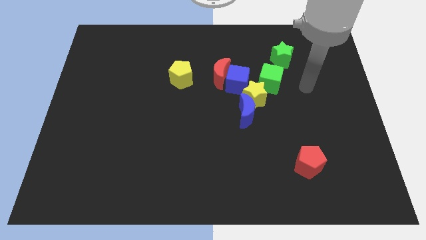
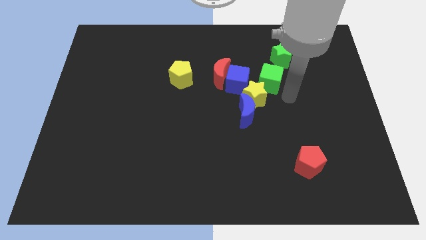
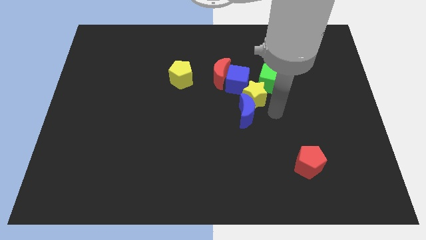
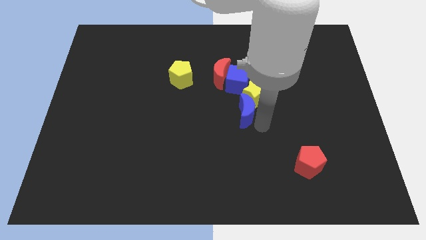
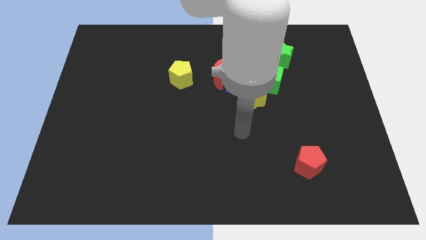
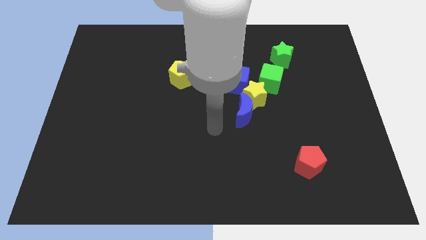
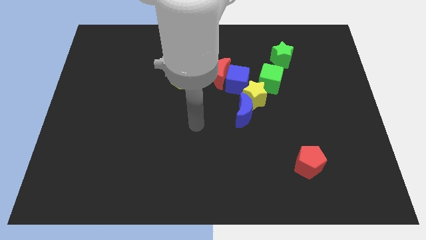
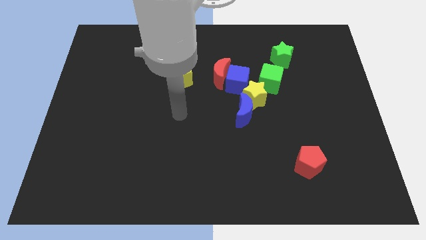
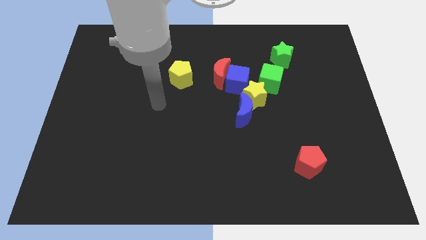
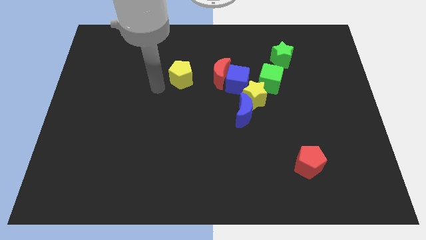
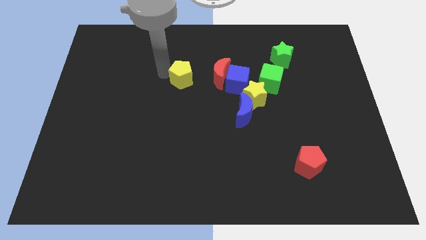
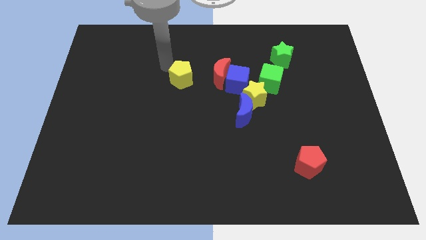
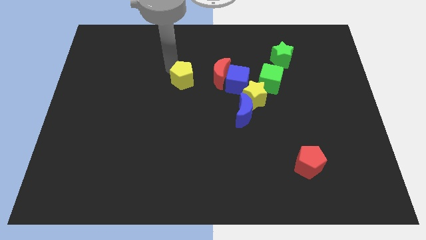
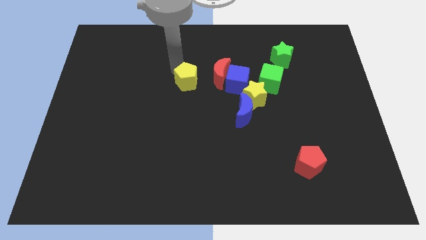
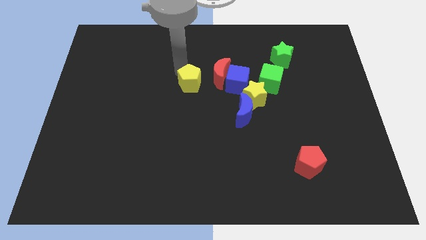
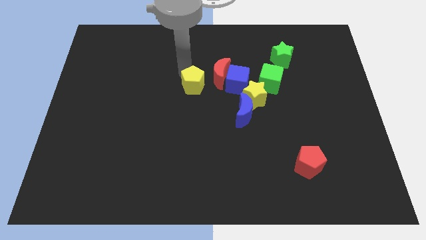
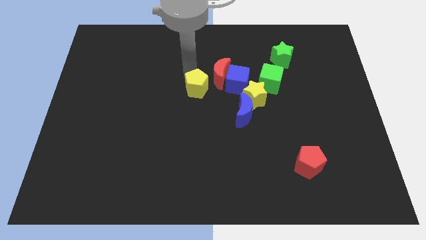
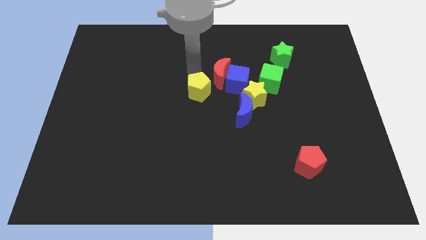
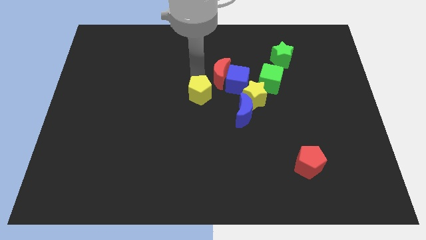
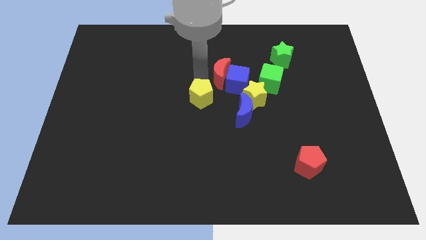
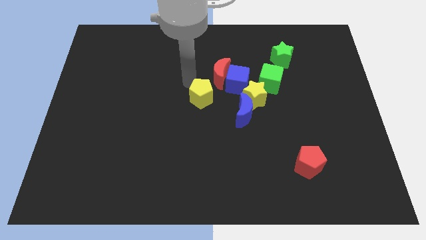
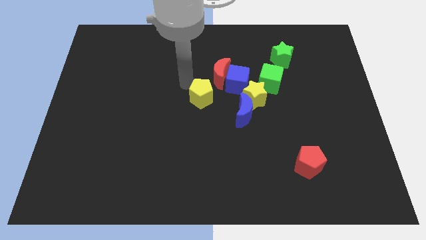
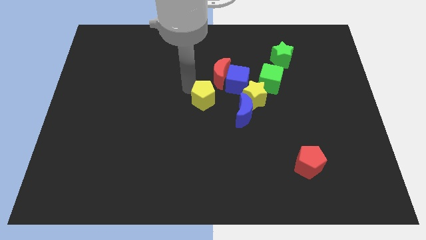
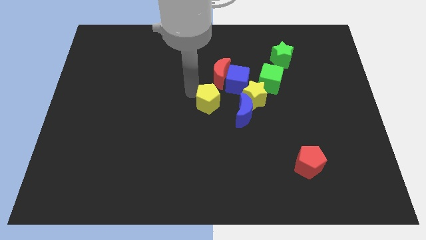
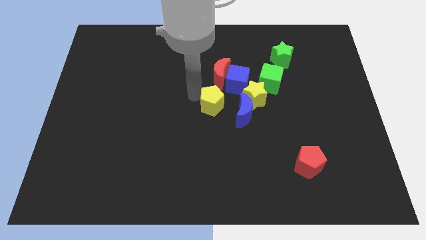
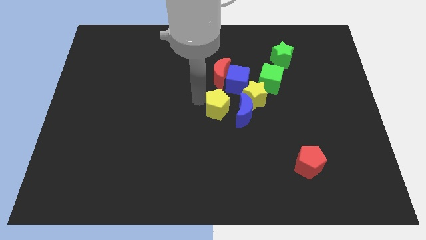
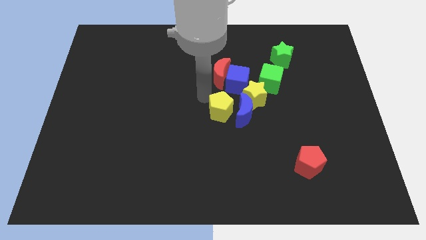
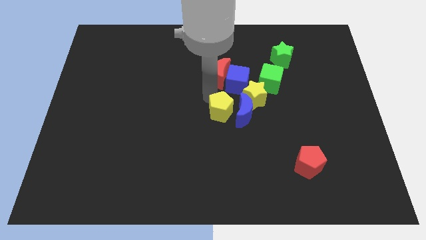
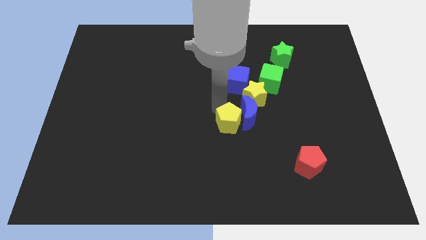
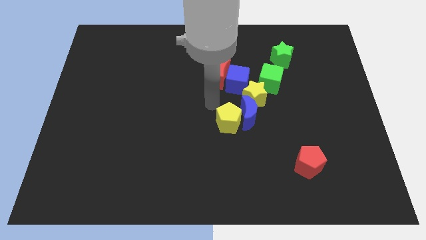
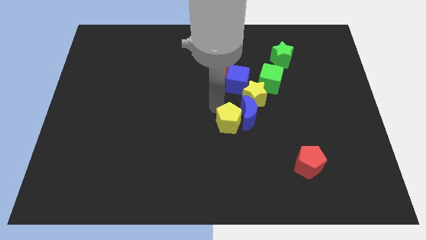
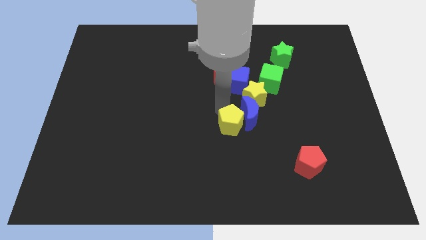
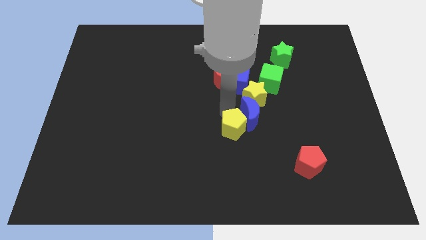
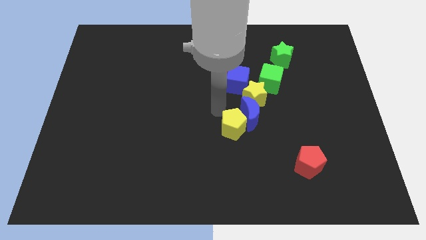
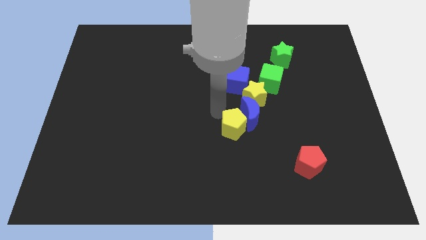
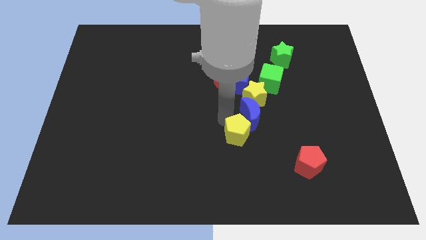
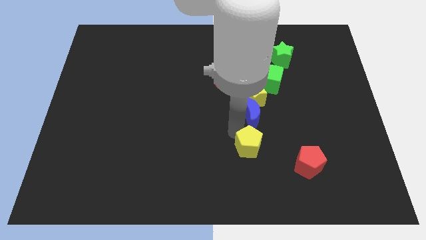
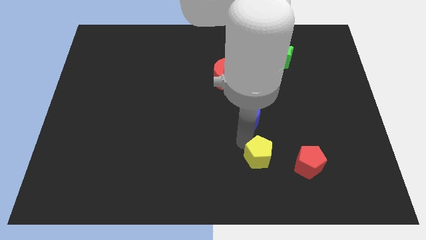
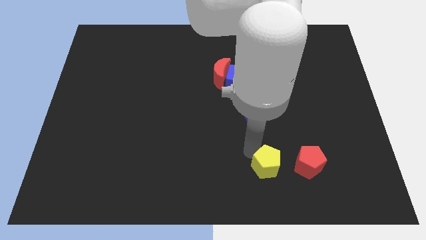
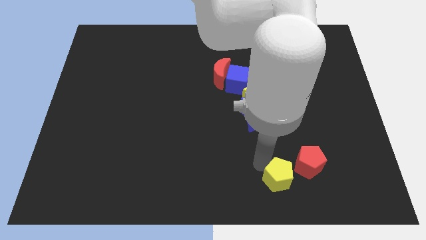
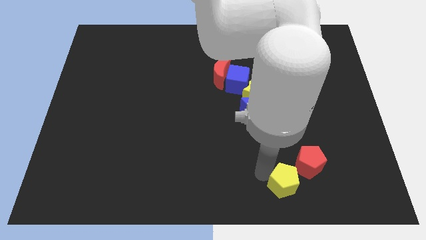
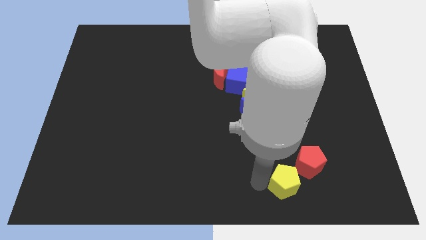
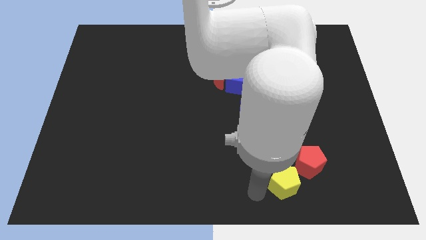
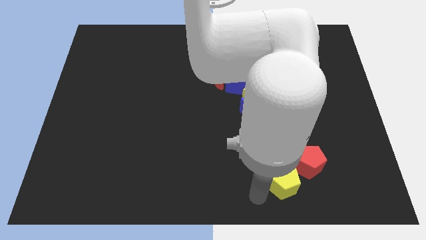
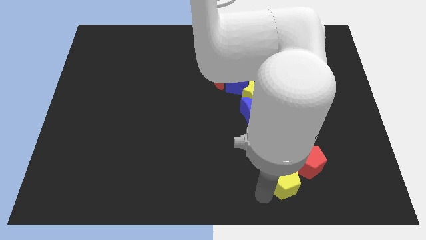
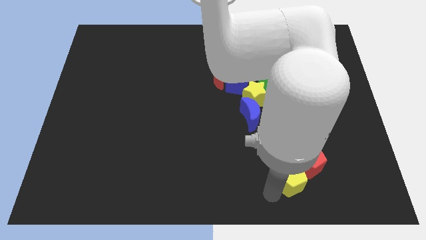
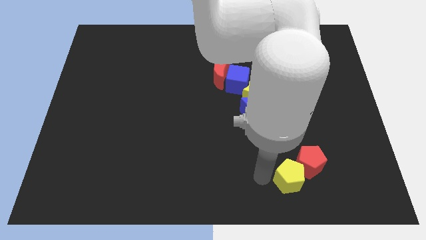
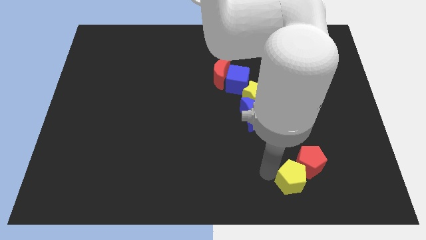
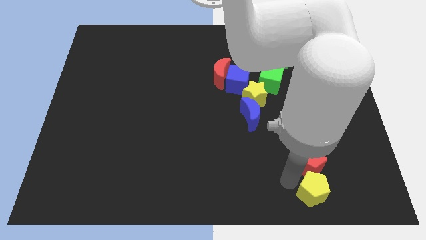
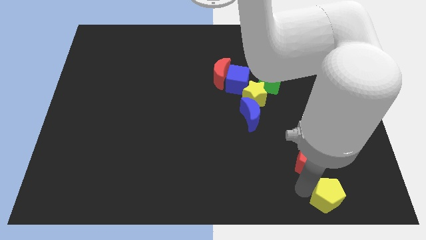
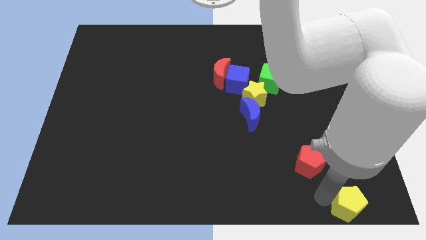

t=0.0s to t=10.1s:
put the yellow pentagon to the bottom right

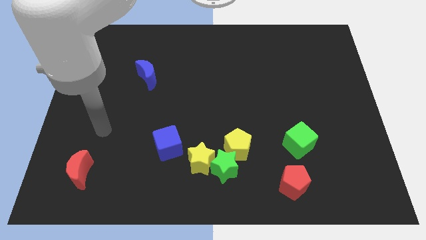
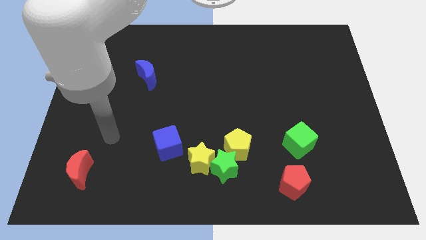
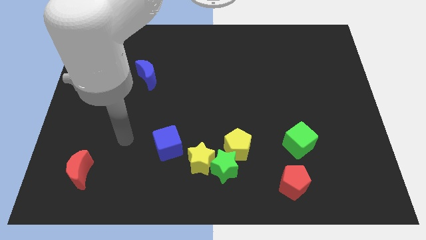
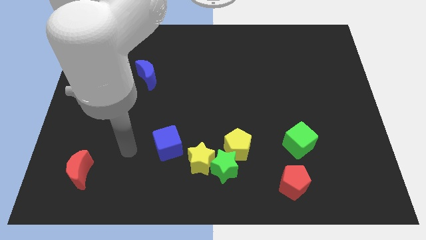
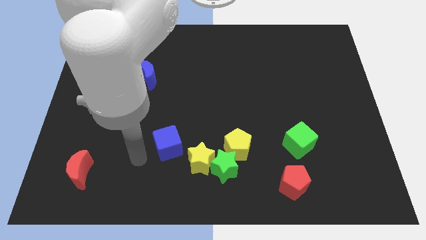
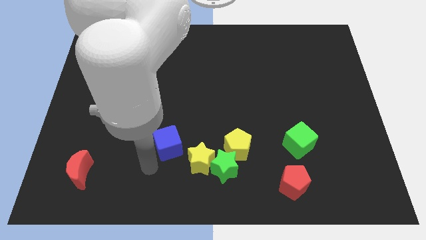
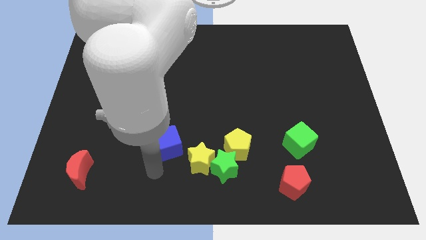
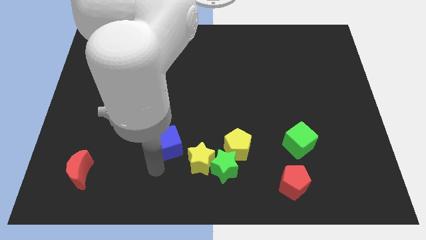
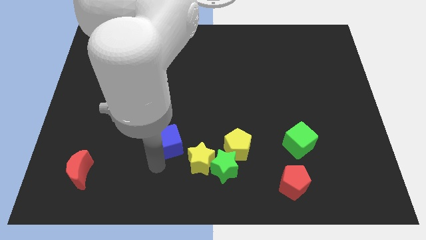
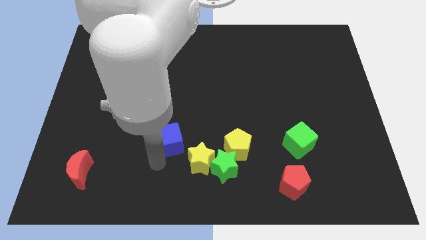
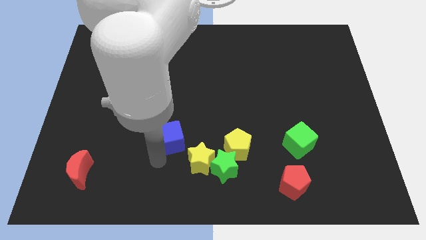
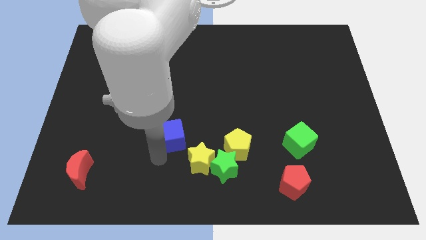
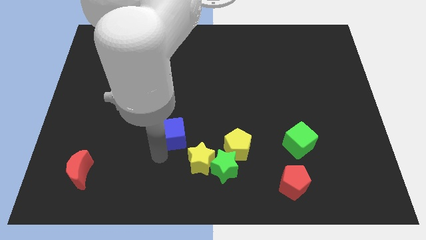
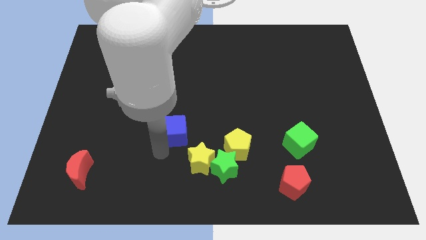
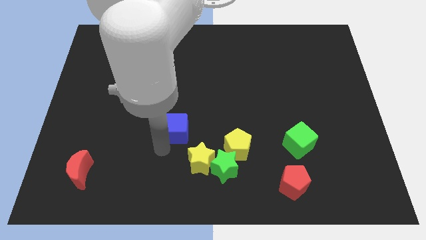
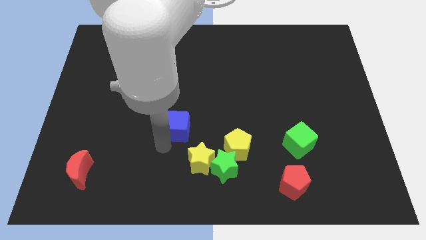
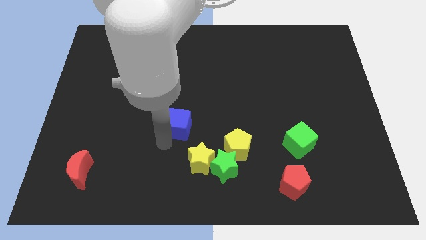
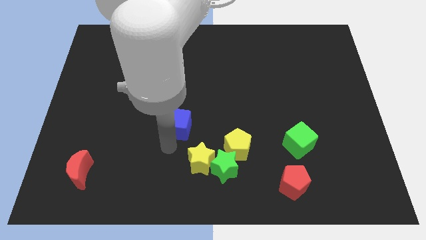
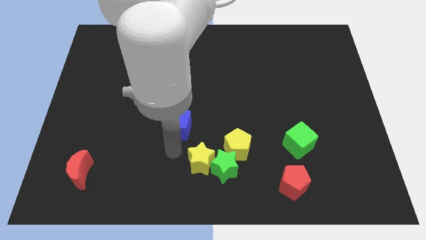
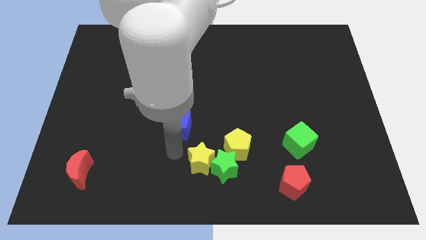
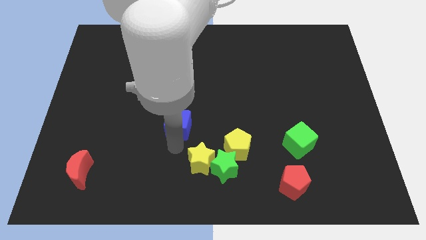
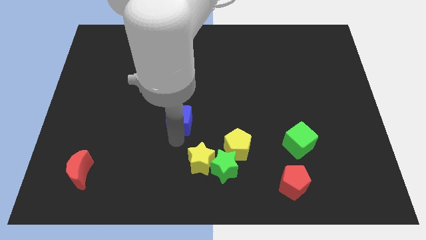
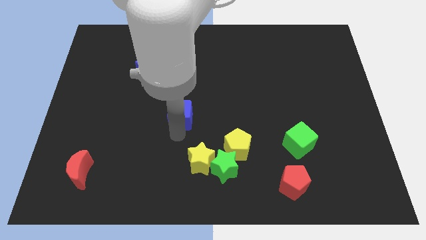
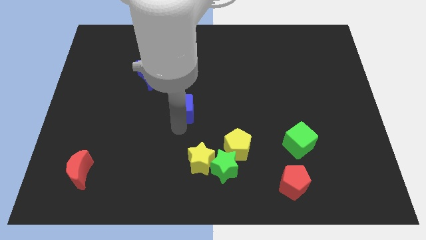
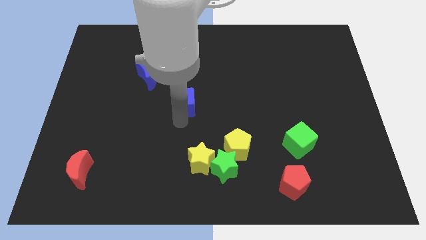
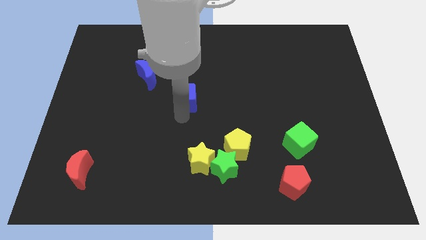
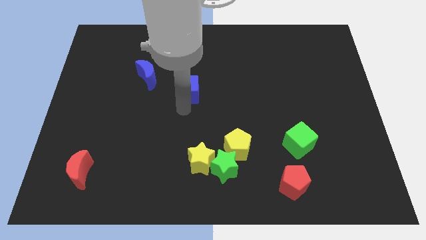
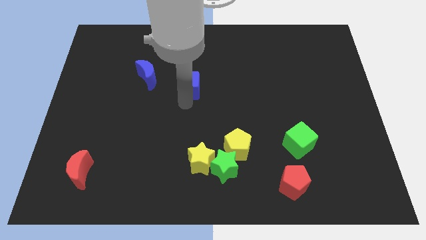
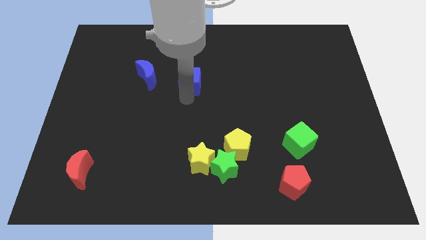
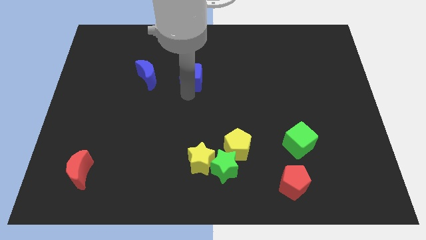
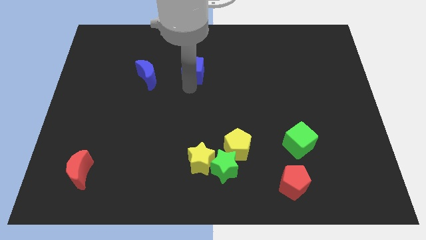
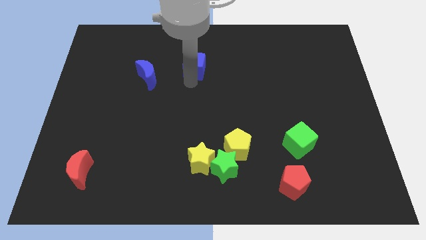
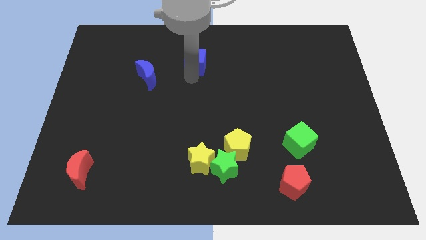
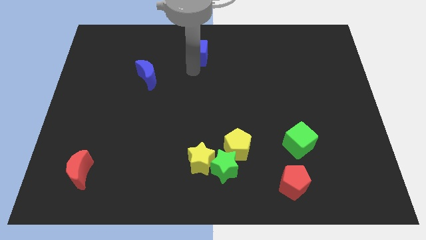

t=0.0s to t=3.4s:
push the blue cube to the top side

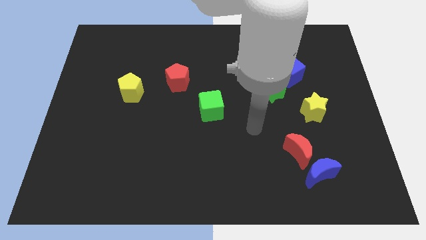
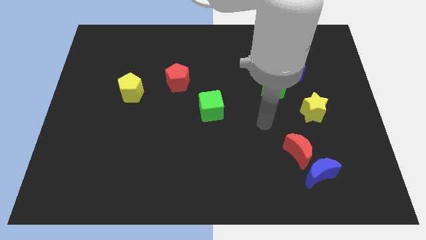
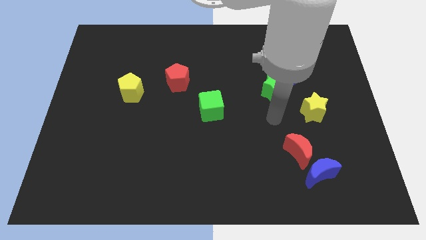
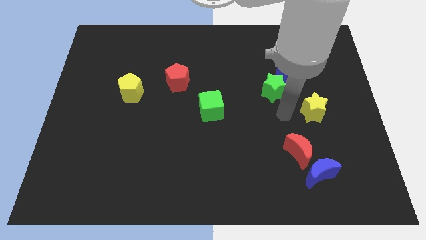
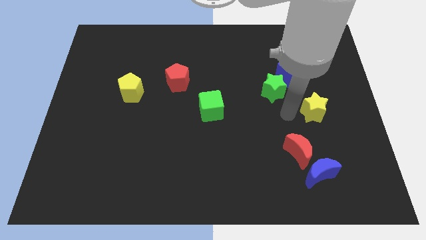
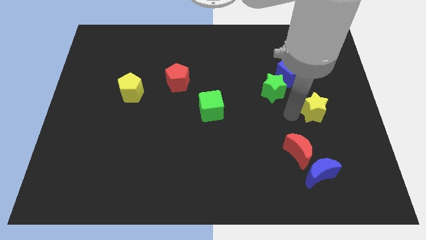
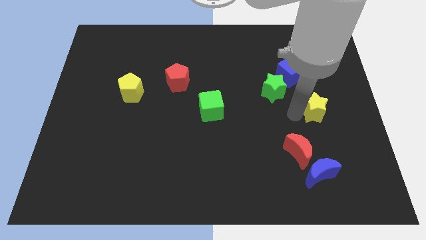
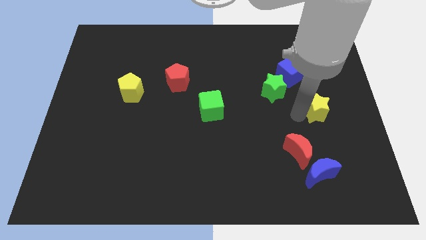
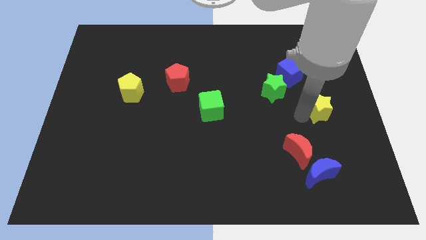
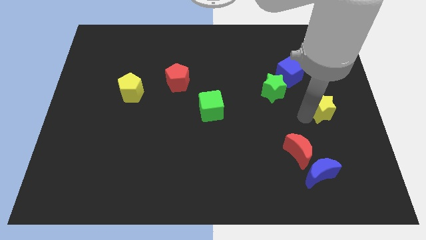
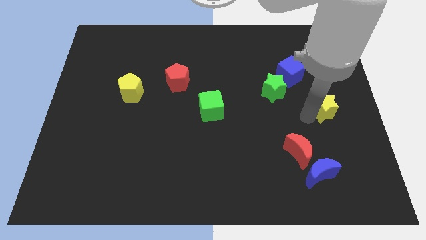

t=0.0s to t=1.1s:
move the yellow star to the center right
